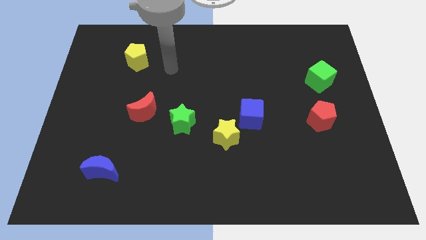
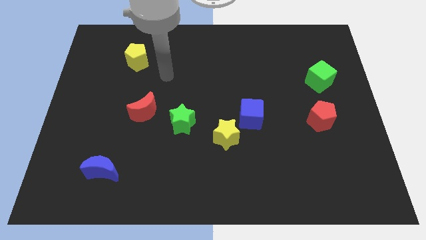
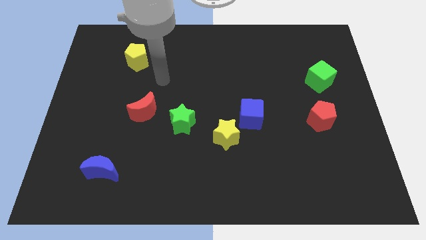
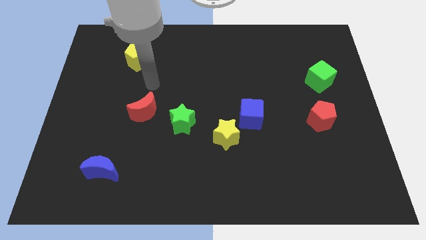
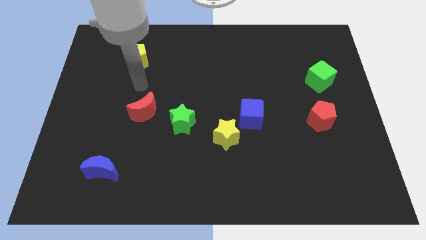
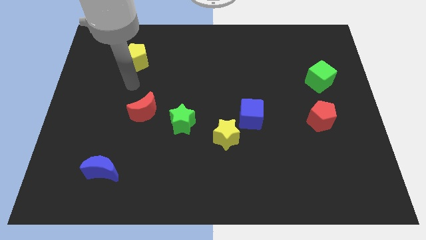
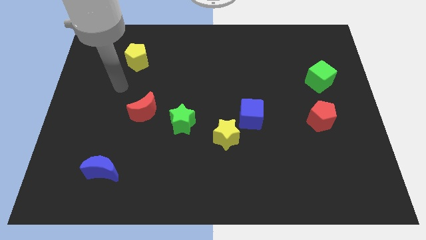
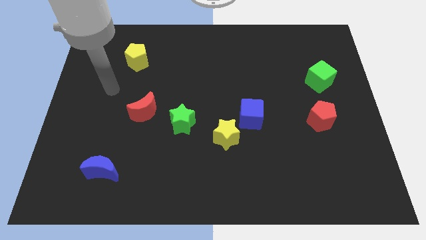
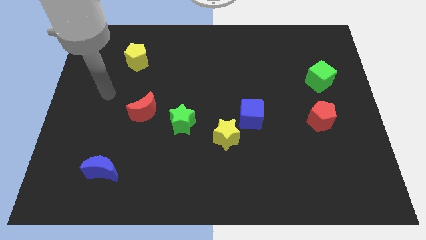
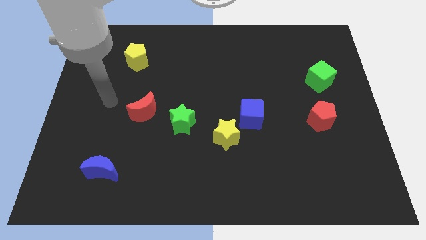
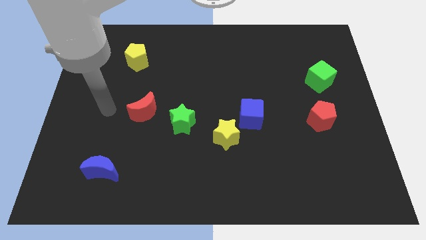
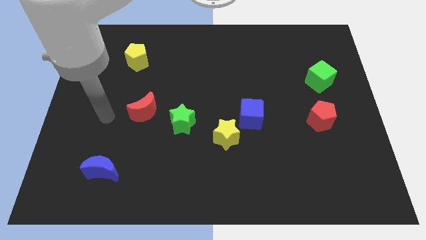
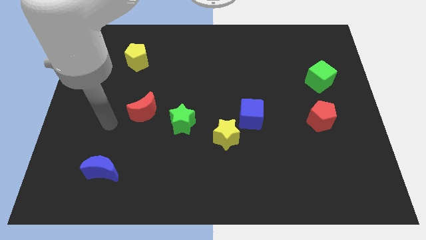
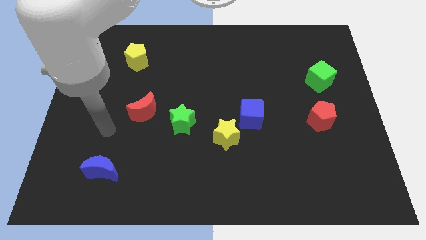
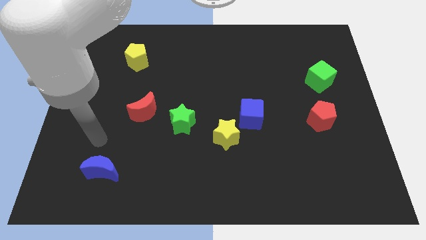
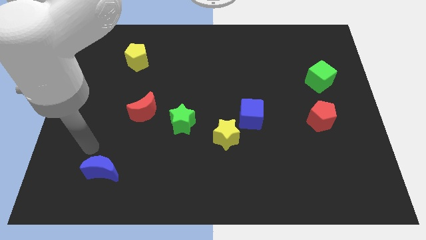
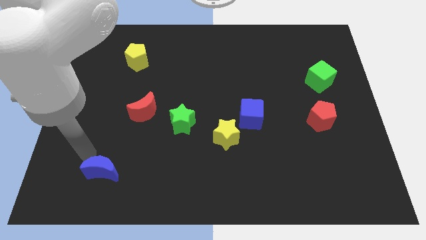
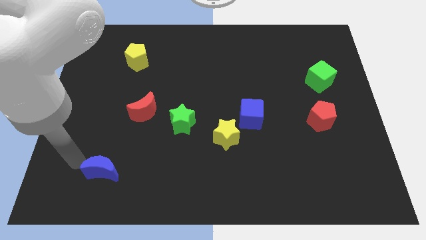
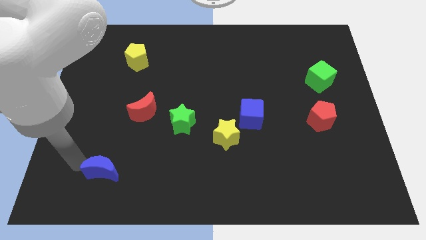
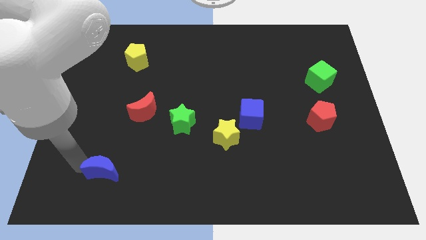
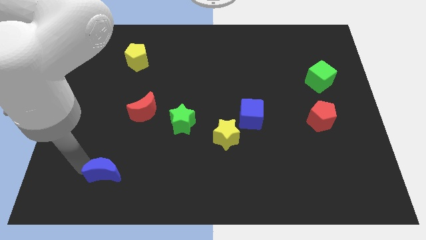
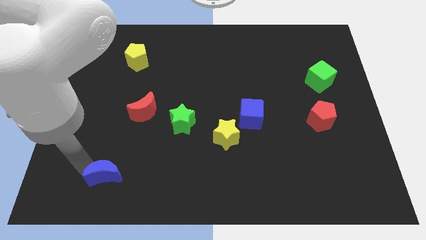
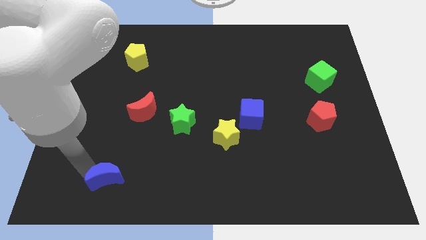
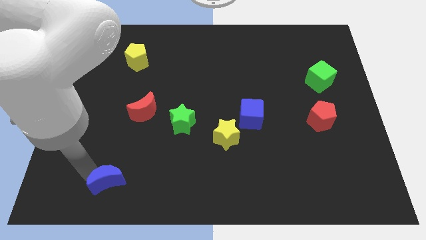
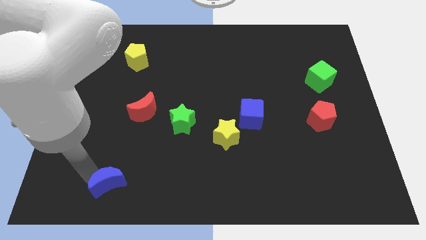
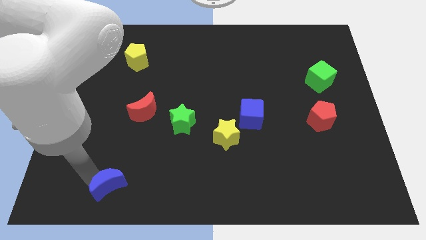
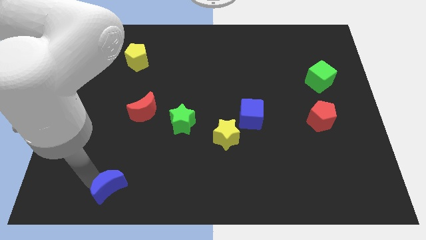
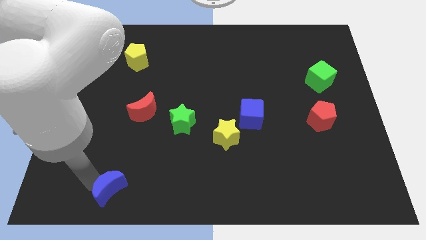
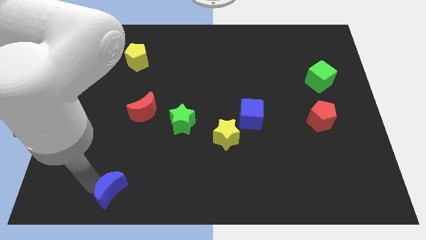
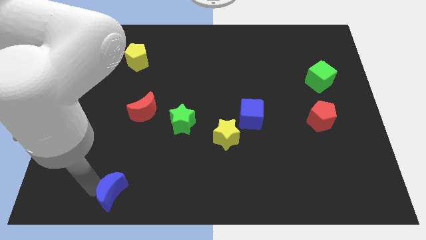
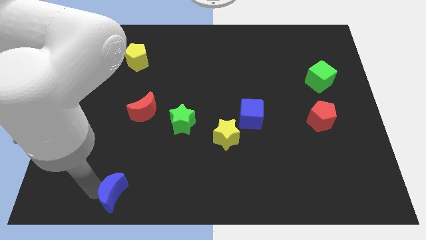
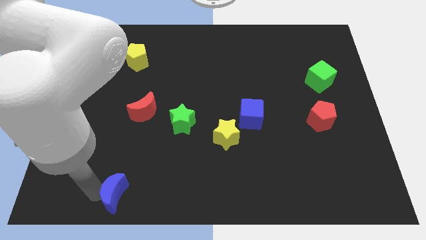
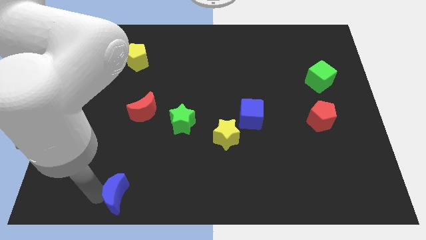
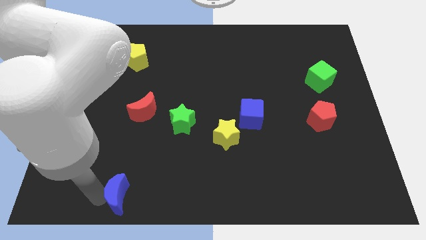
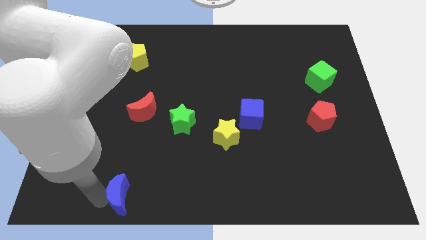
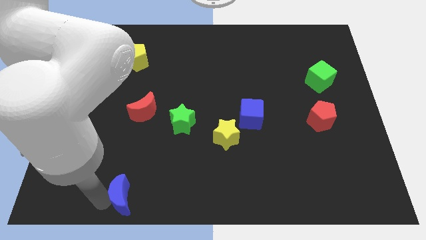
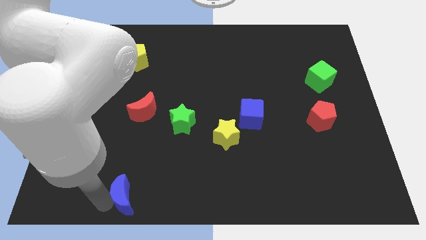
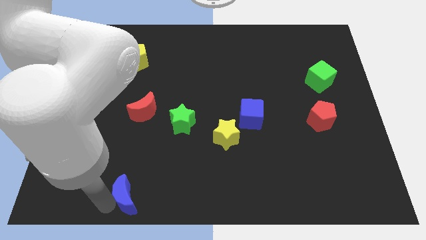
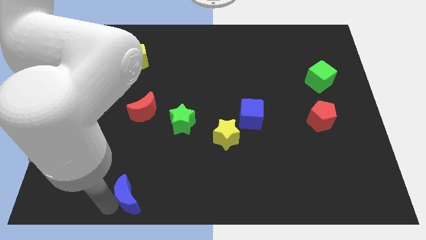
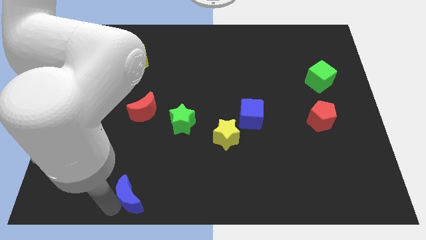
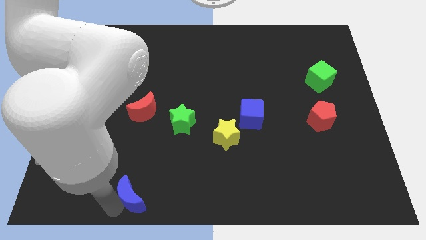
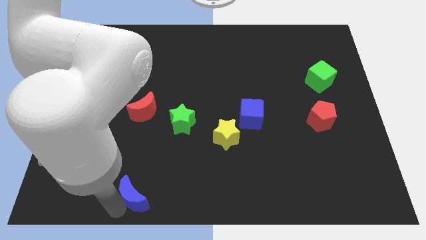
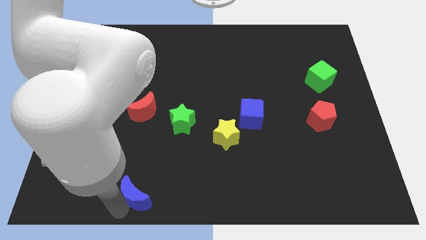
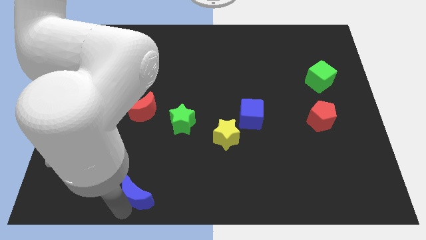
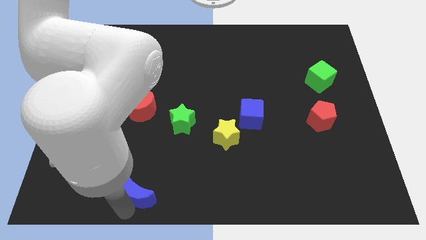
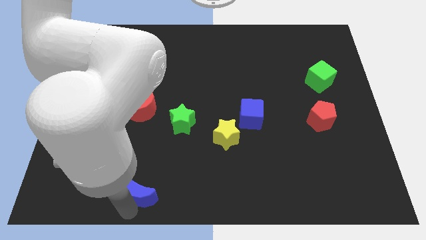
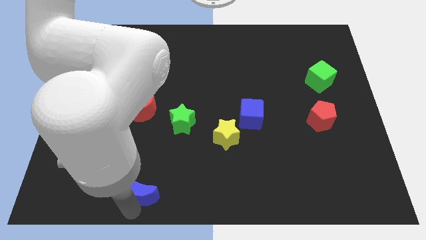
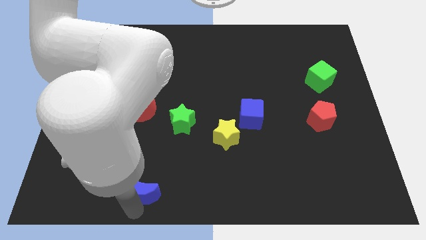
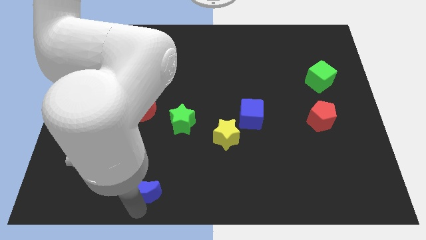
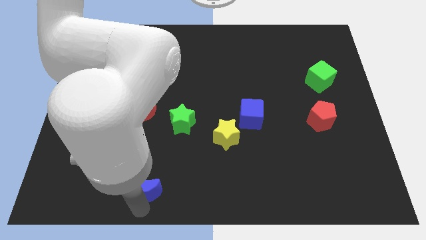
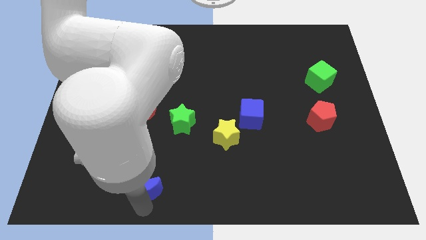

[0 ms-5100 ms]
put the blue moon to the bottom

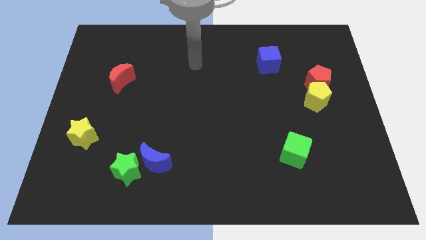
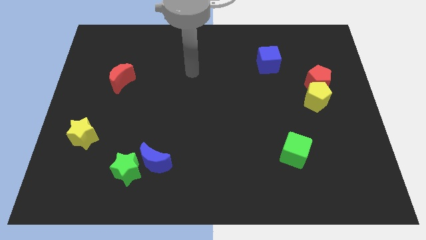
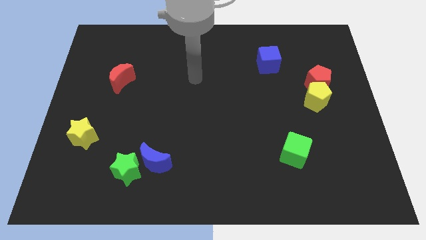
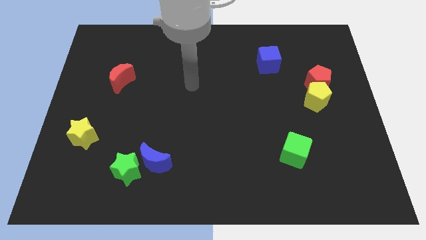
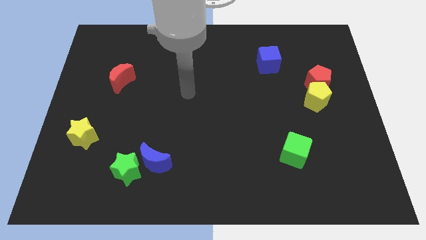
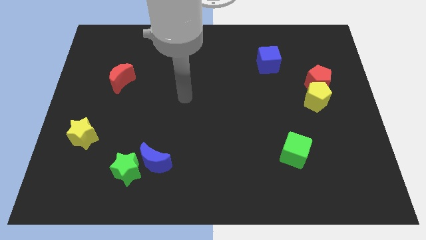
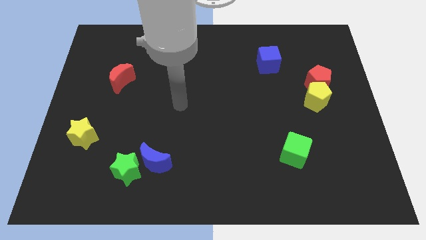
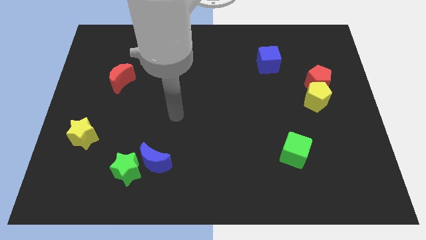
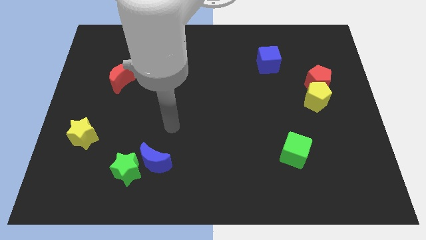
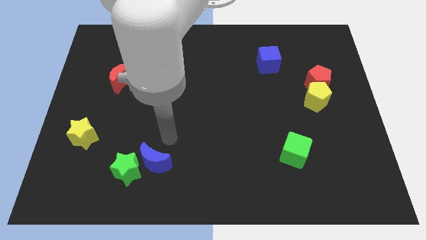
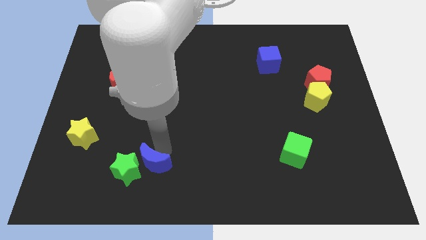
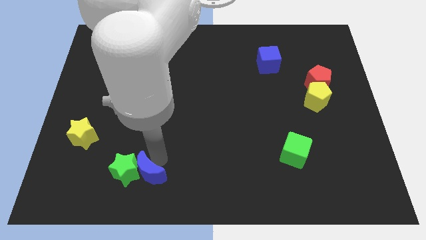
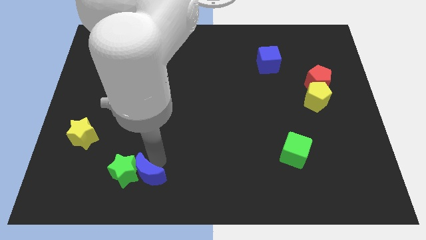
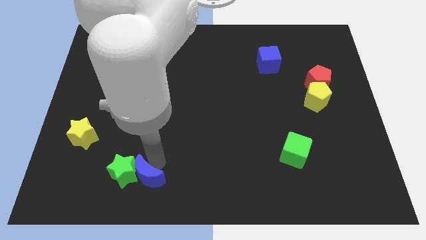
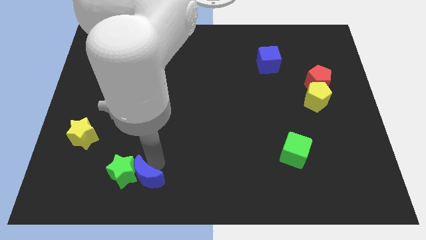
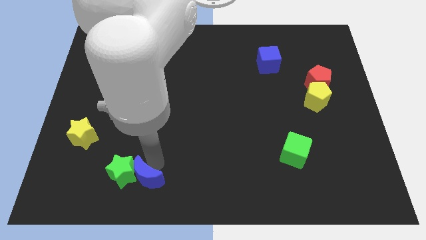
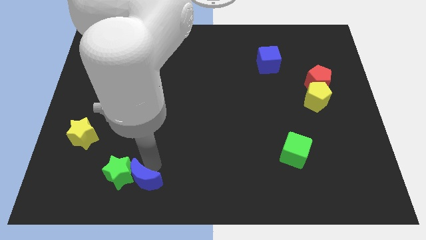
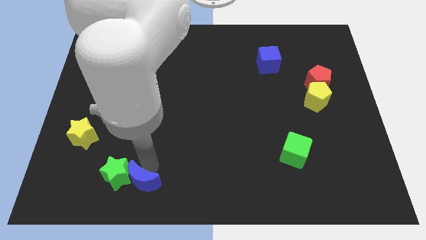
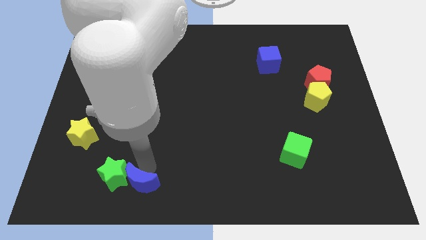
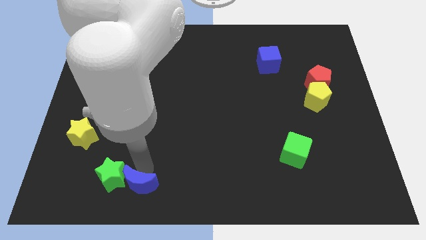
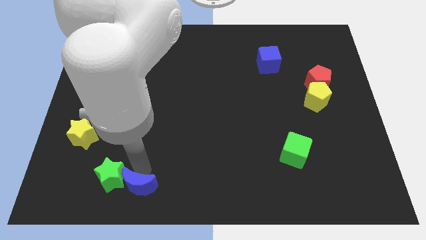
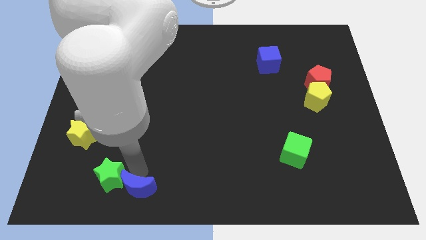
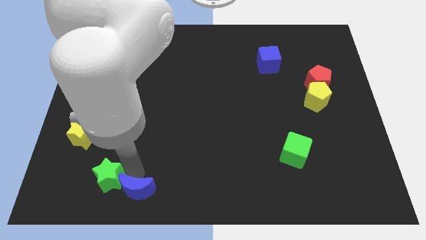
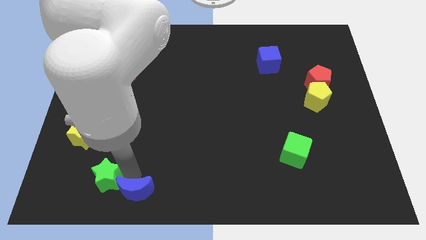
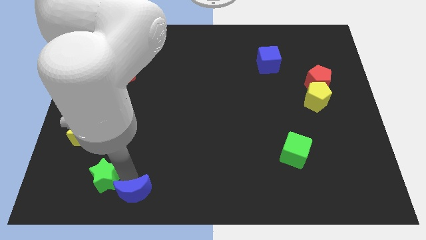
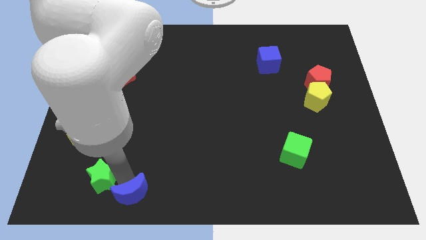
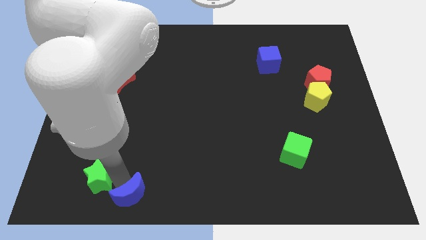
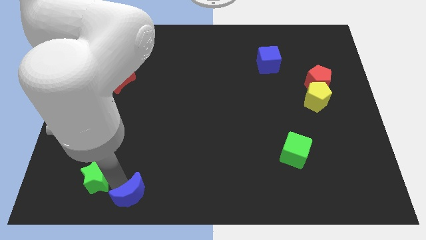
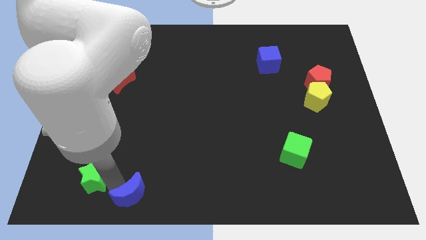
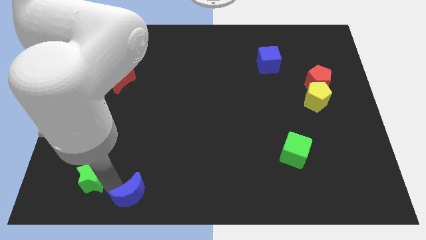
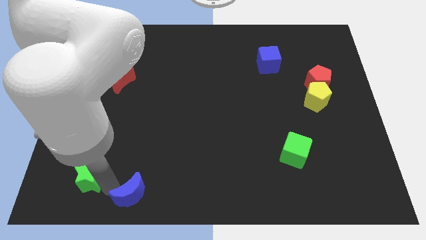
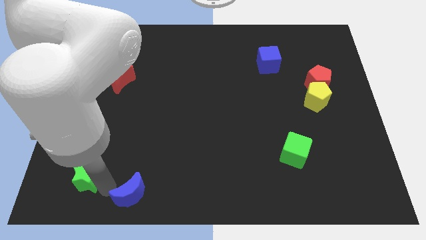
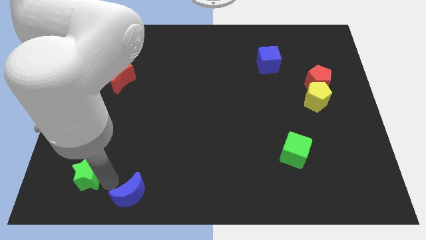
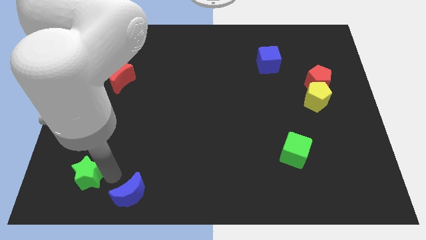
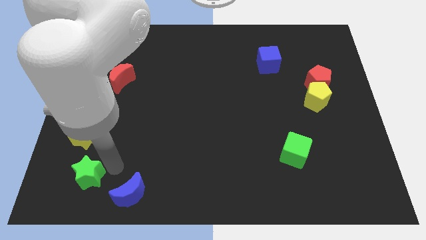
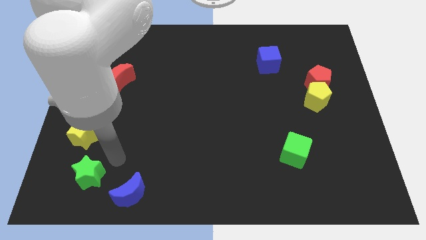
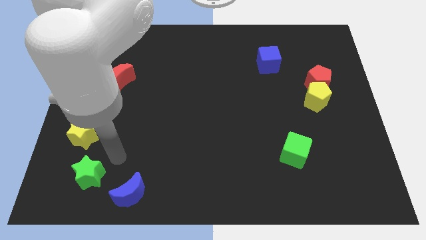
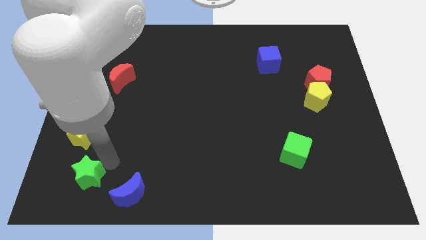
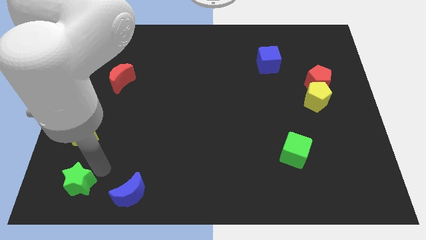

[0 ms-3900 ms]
move the green star to the bottom left of the board
